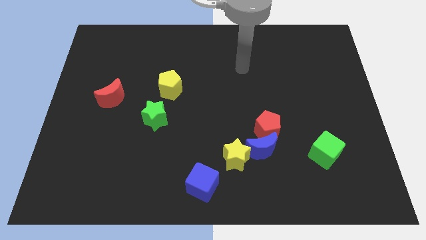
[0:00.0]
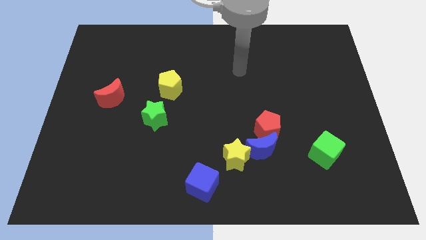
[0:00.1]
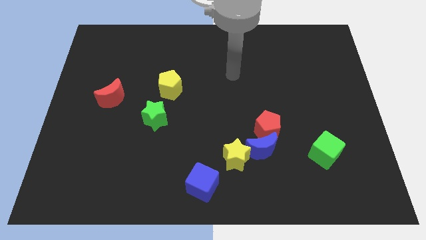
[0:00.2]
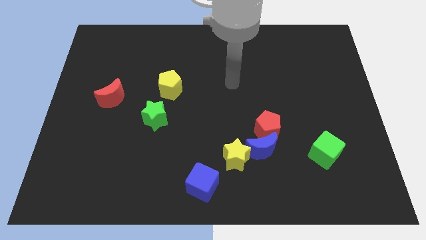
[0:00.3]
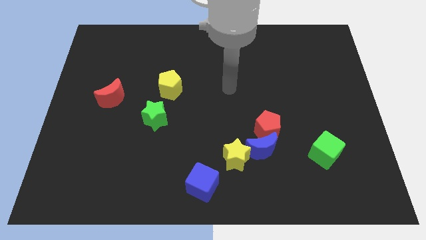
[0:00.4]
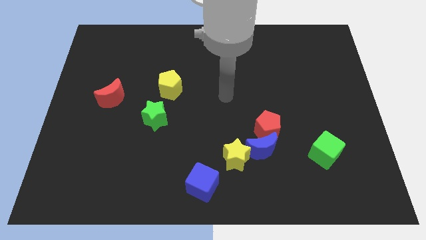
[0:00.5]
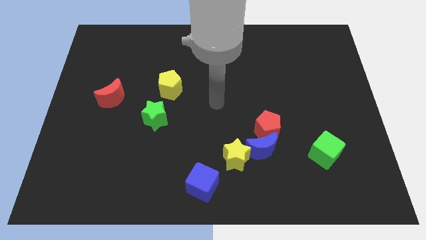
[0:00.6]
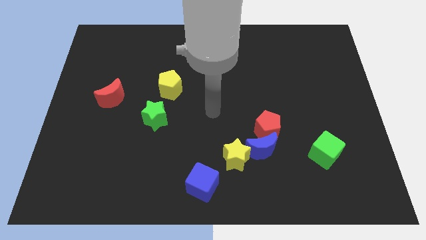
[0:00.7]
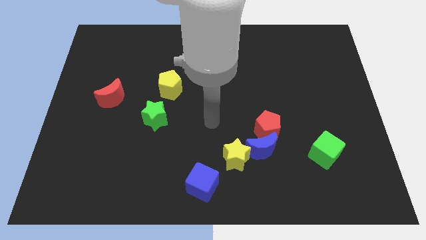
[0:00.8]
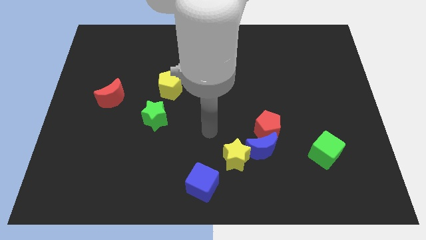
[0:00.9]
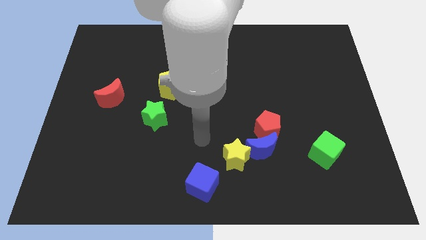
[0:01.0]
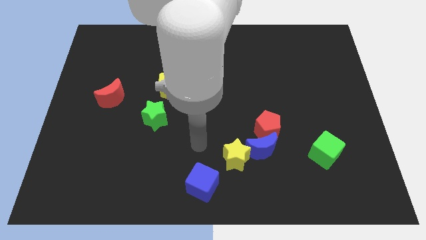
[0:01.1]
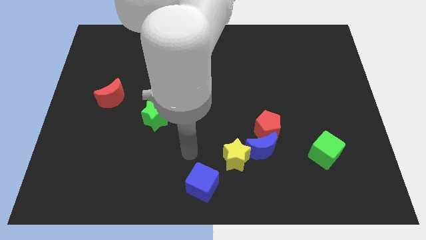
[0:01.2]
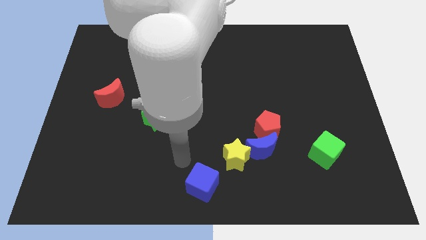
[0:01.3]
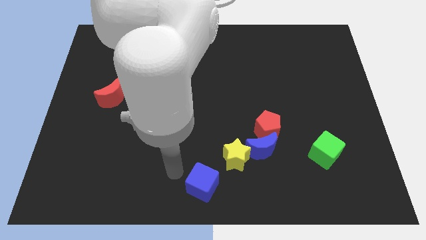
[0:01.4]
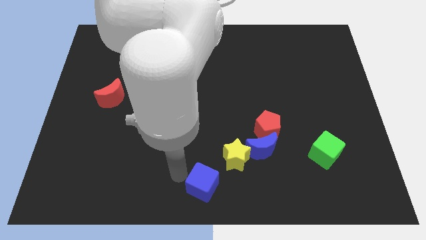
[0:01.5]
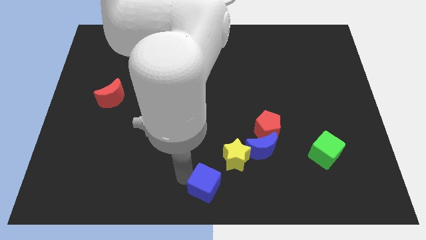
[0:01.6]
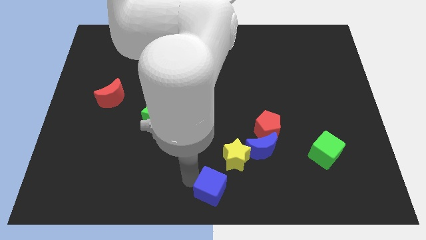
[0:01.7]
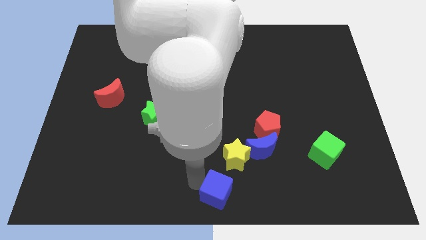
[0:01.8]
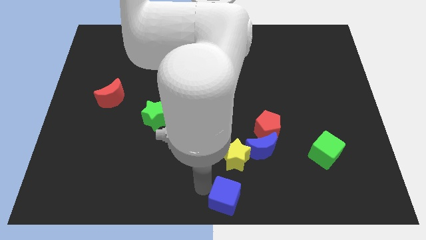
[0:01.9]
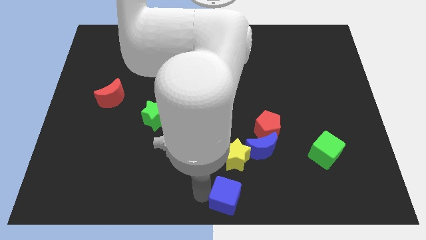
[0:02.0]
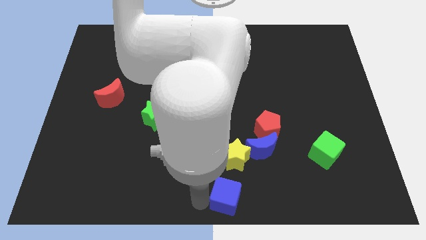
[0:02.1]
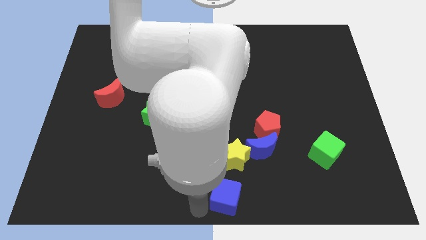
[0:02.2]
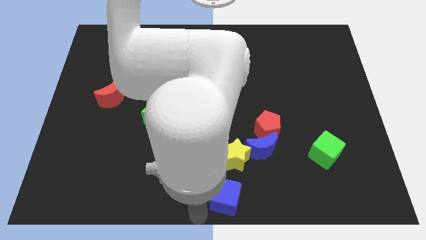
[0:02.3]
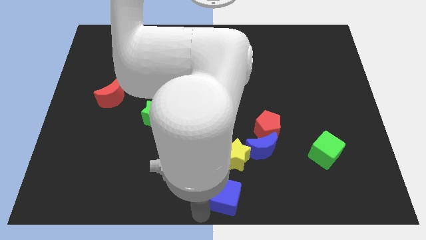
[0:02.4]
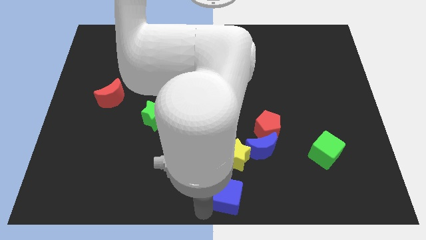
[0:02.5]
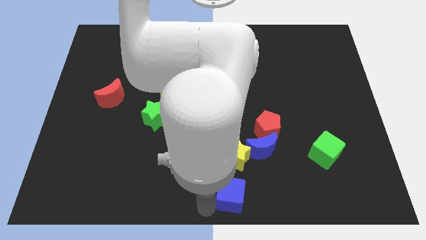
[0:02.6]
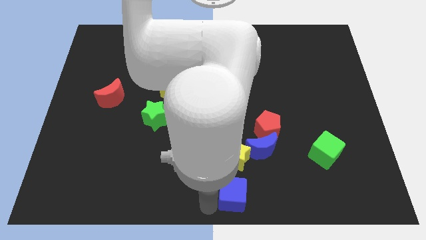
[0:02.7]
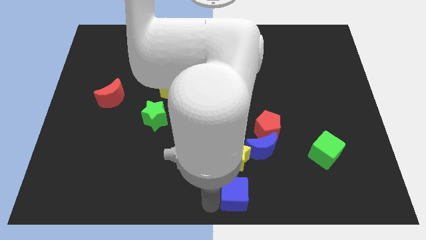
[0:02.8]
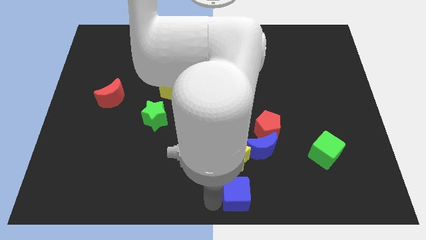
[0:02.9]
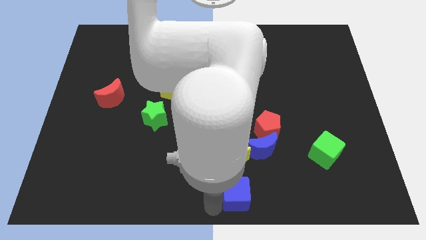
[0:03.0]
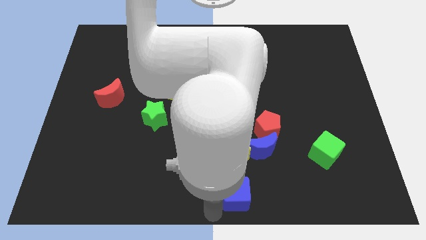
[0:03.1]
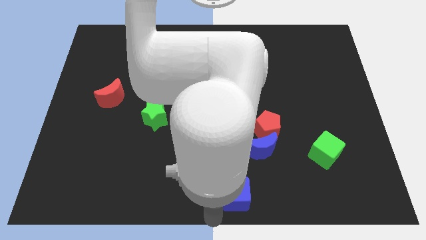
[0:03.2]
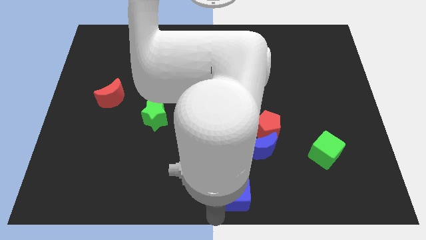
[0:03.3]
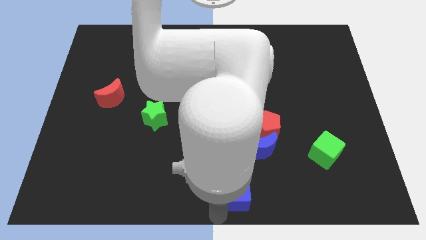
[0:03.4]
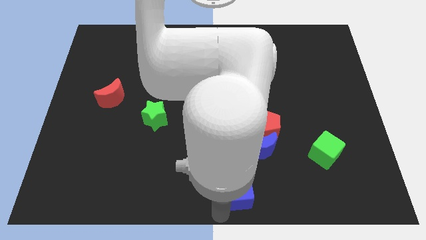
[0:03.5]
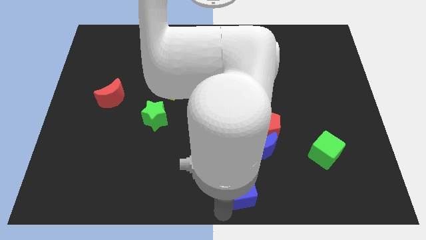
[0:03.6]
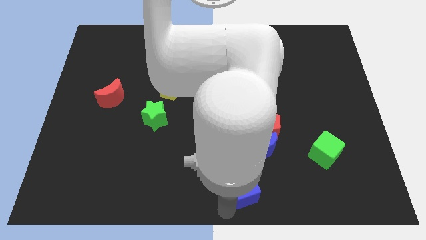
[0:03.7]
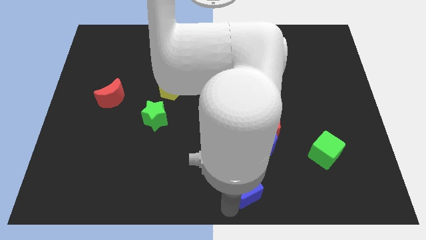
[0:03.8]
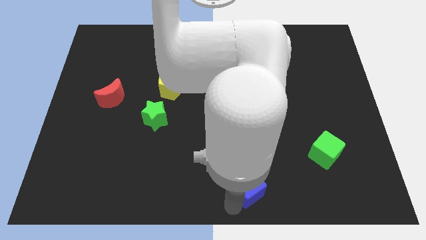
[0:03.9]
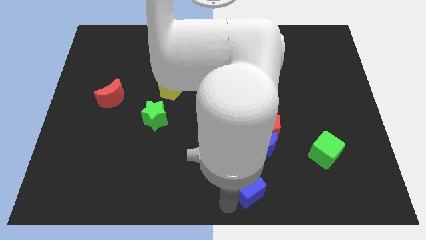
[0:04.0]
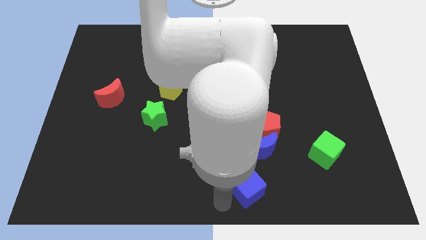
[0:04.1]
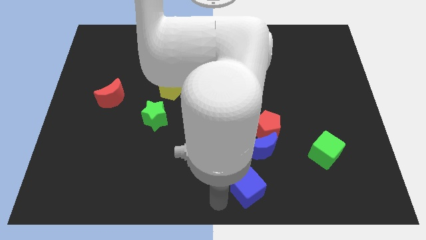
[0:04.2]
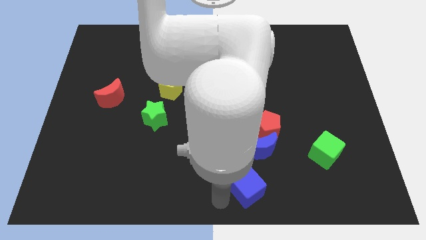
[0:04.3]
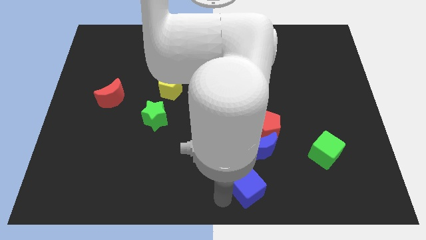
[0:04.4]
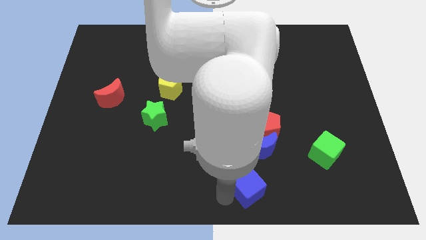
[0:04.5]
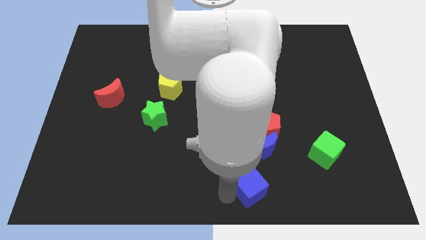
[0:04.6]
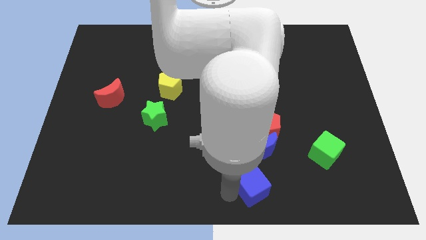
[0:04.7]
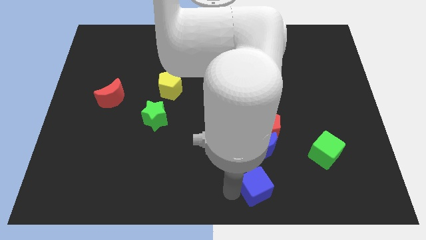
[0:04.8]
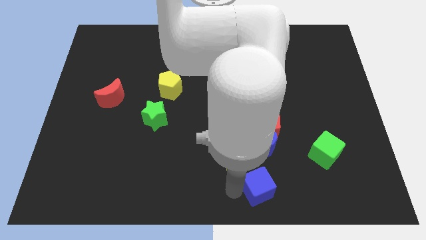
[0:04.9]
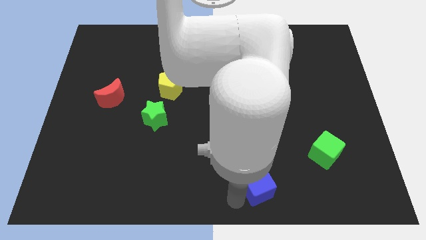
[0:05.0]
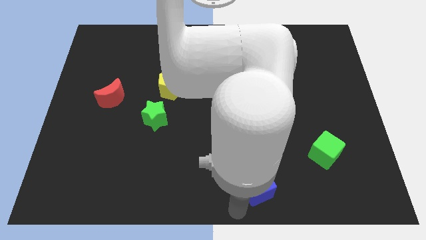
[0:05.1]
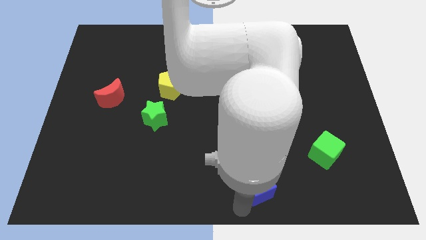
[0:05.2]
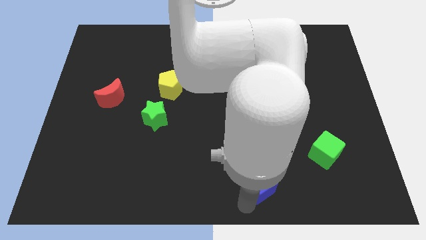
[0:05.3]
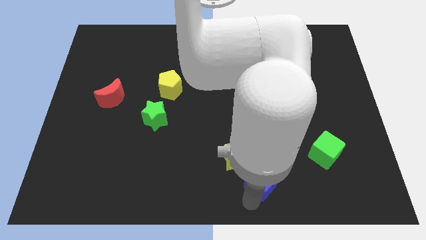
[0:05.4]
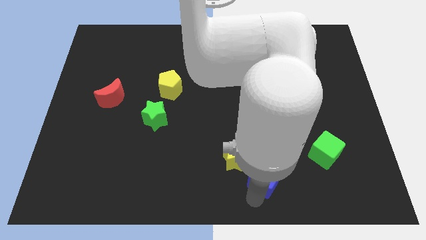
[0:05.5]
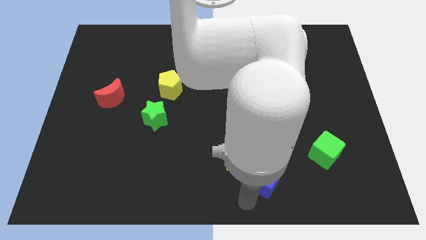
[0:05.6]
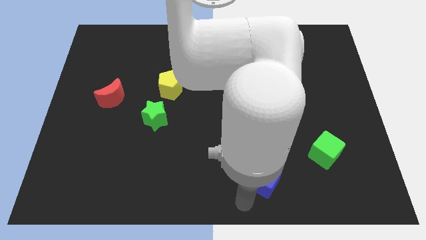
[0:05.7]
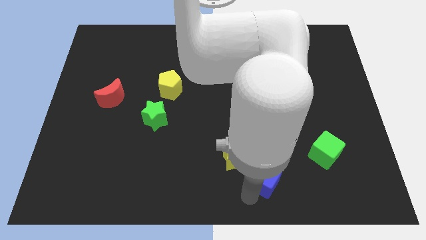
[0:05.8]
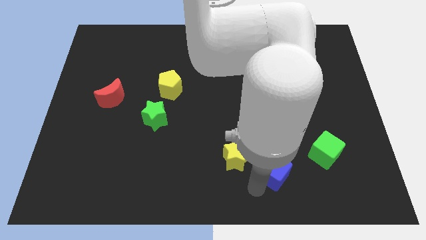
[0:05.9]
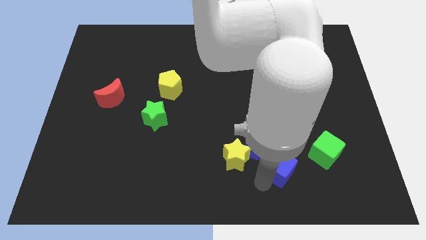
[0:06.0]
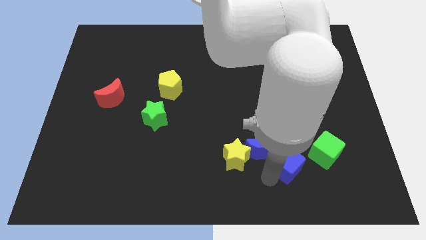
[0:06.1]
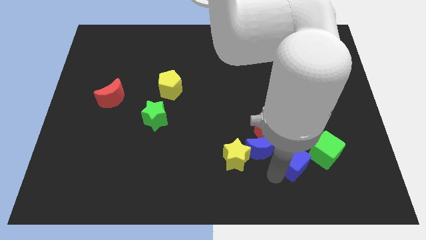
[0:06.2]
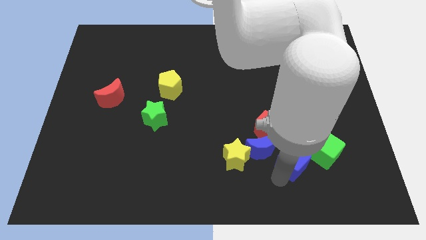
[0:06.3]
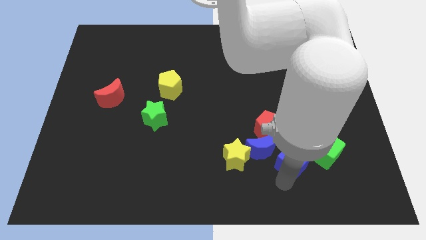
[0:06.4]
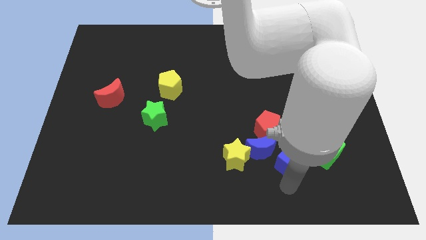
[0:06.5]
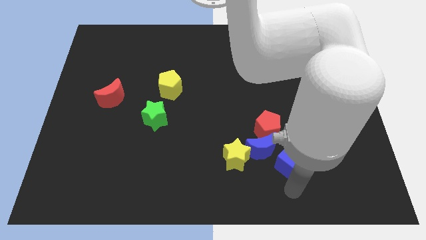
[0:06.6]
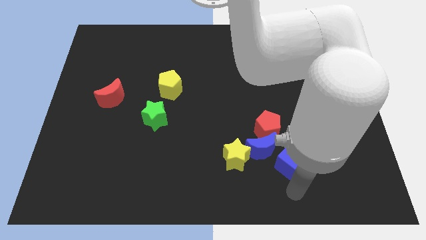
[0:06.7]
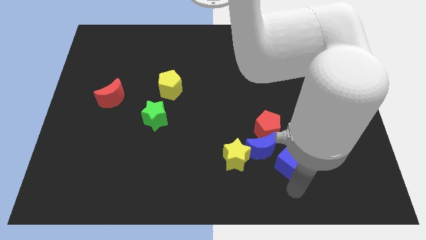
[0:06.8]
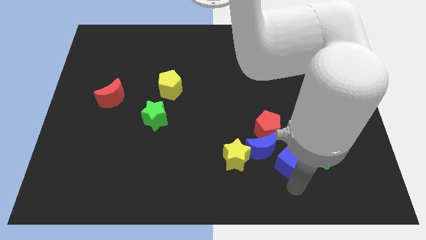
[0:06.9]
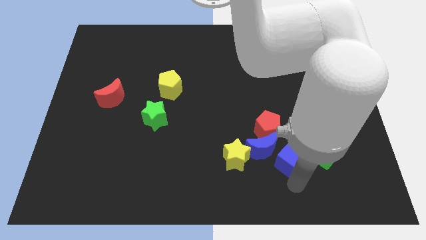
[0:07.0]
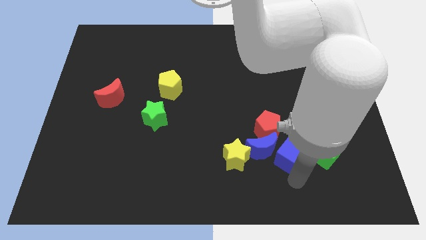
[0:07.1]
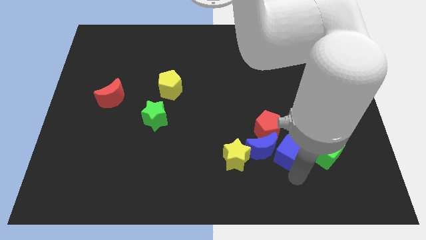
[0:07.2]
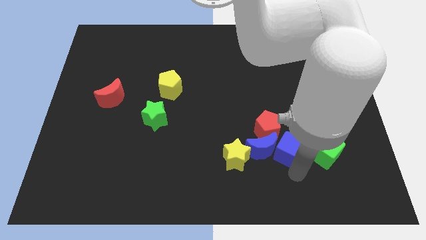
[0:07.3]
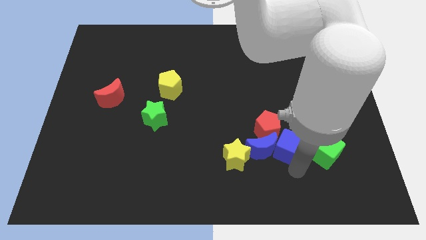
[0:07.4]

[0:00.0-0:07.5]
slide the blue cube to the top left side of the green cube
